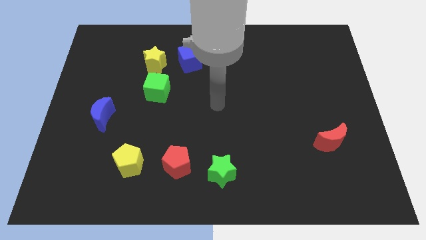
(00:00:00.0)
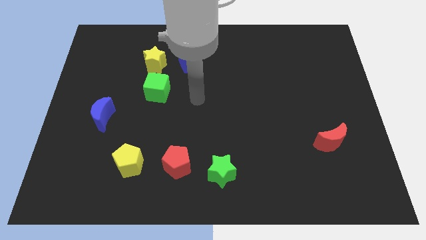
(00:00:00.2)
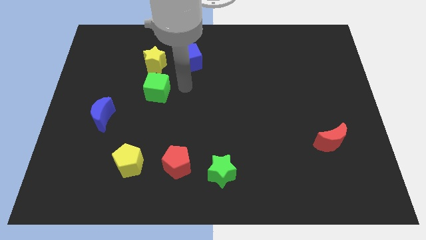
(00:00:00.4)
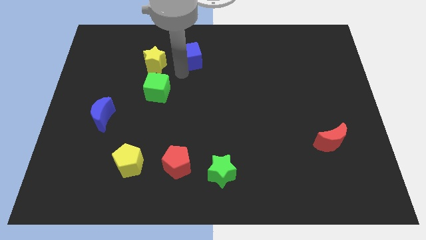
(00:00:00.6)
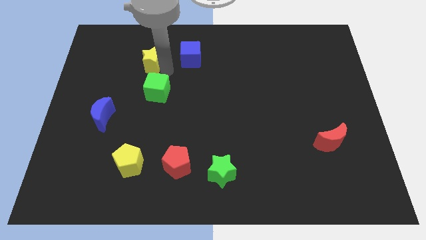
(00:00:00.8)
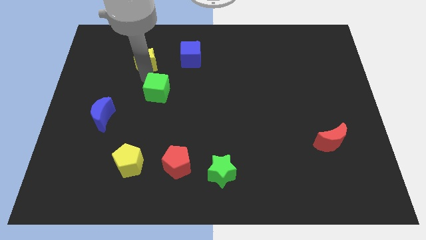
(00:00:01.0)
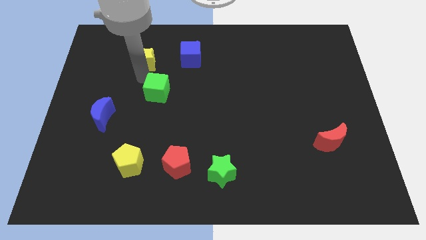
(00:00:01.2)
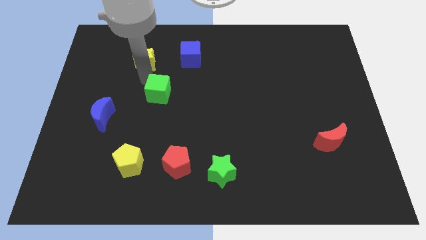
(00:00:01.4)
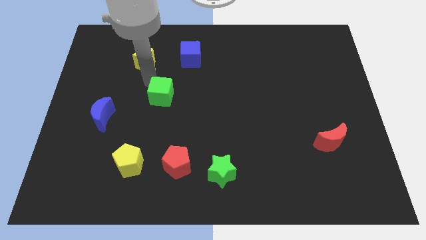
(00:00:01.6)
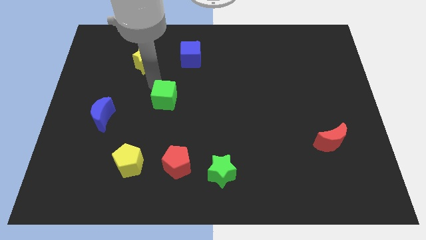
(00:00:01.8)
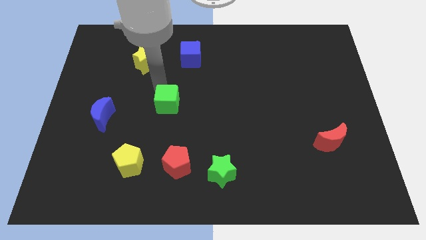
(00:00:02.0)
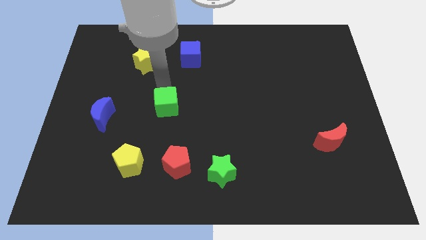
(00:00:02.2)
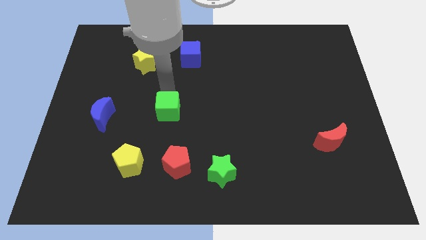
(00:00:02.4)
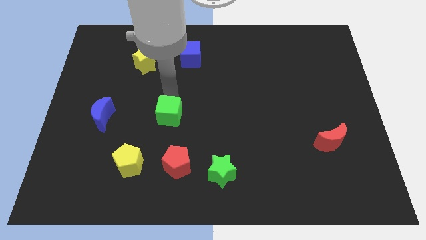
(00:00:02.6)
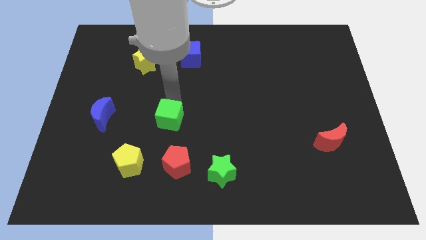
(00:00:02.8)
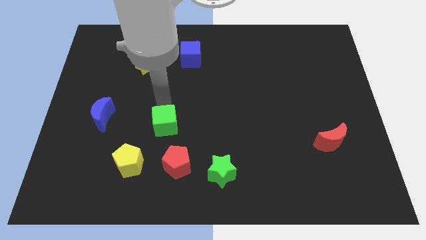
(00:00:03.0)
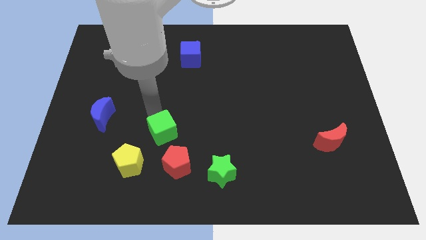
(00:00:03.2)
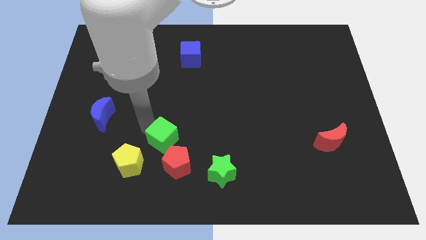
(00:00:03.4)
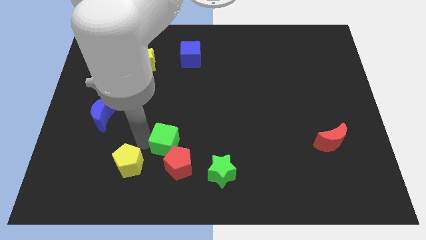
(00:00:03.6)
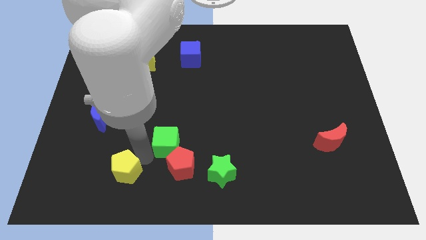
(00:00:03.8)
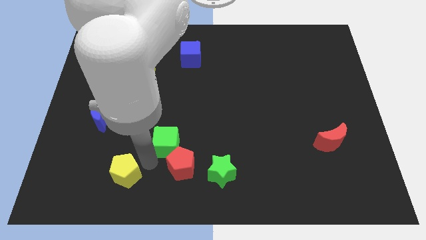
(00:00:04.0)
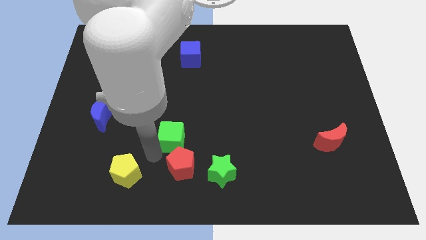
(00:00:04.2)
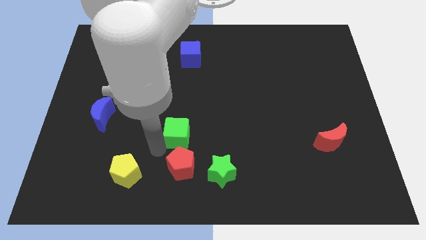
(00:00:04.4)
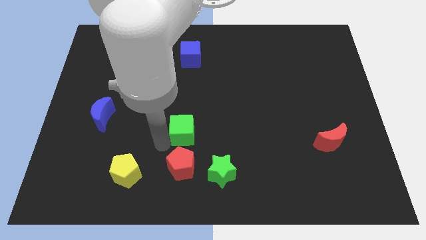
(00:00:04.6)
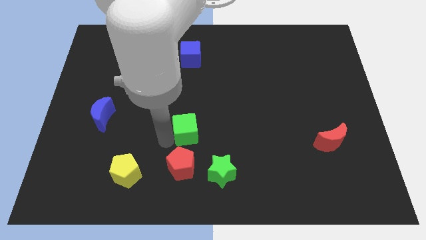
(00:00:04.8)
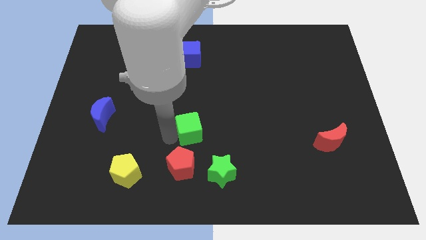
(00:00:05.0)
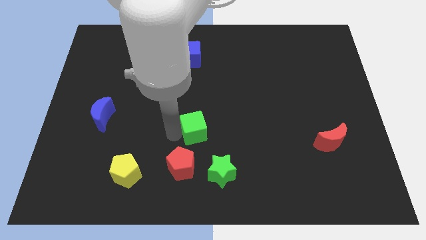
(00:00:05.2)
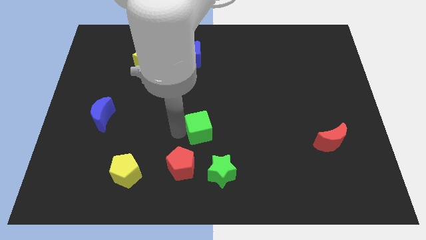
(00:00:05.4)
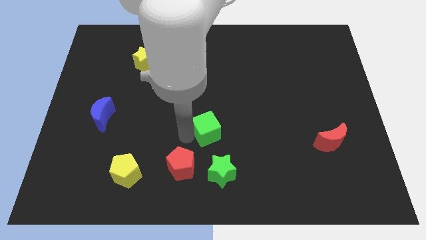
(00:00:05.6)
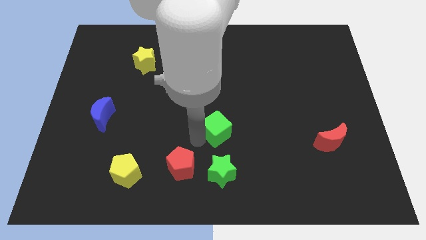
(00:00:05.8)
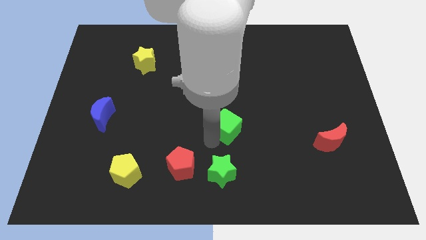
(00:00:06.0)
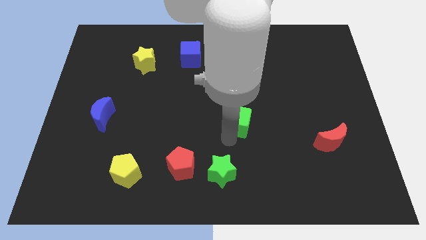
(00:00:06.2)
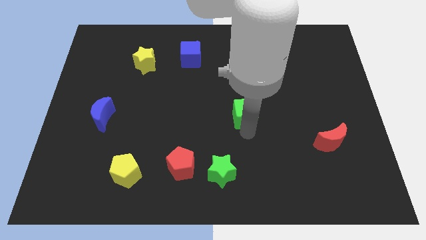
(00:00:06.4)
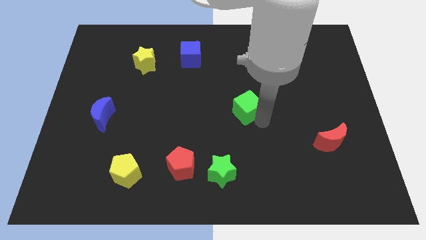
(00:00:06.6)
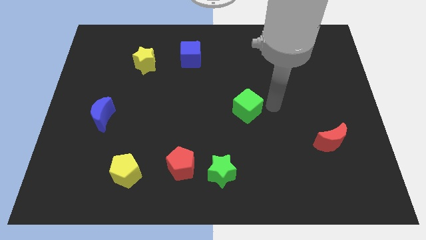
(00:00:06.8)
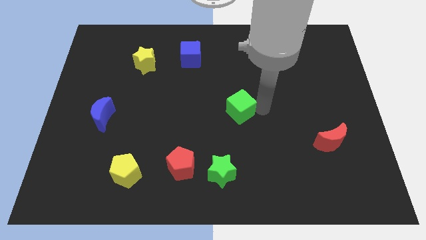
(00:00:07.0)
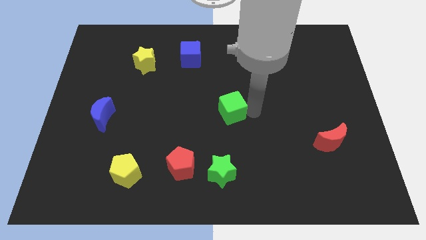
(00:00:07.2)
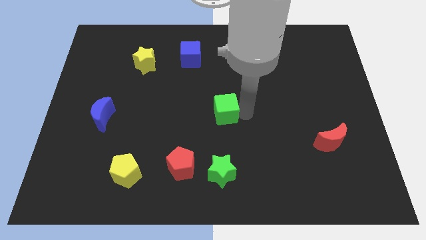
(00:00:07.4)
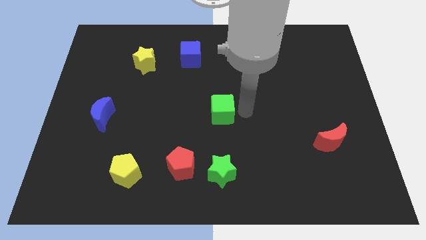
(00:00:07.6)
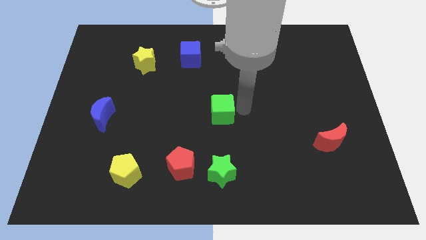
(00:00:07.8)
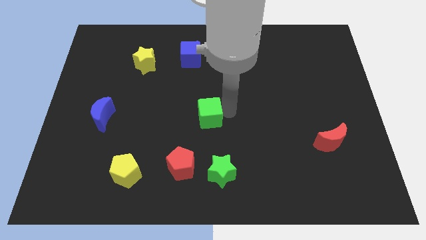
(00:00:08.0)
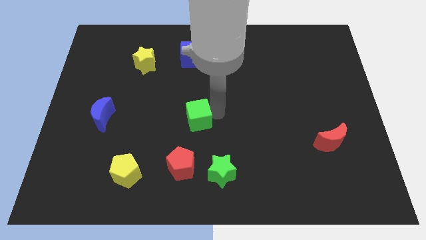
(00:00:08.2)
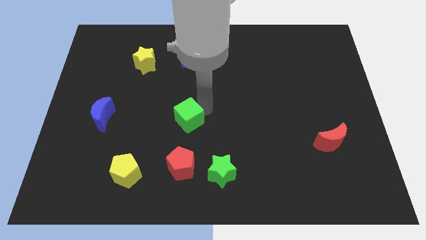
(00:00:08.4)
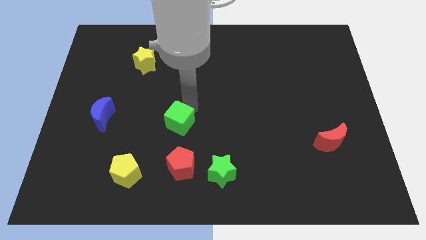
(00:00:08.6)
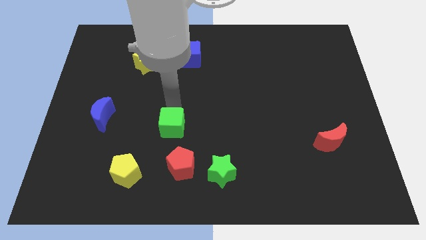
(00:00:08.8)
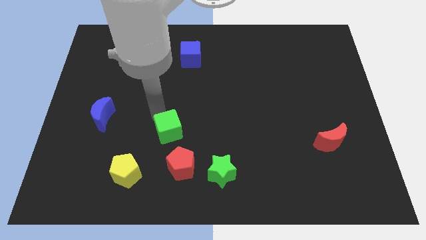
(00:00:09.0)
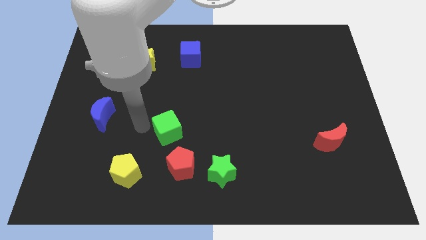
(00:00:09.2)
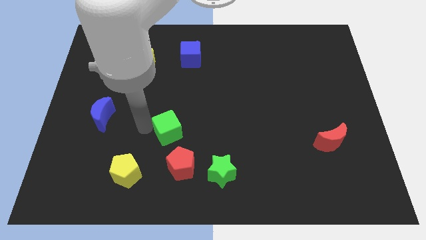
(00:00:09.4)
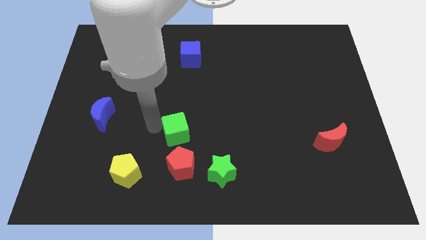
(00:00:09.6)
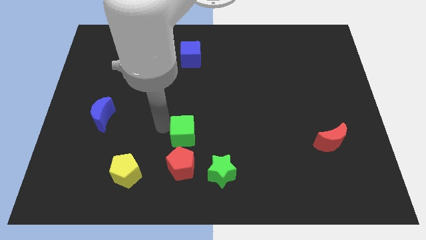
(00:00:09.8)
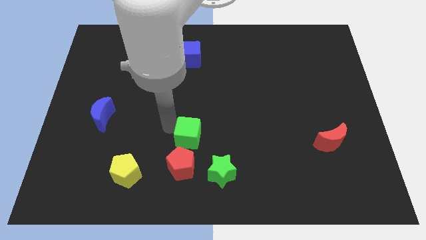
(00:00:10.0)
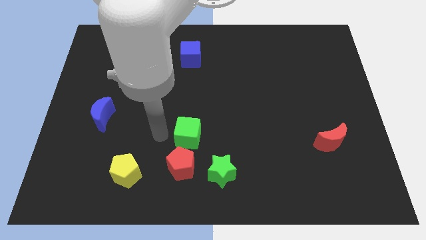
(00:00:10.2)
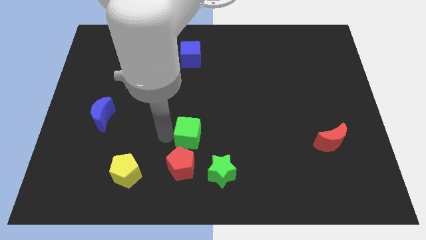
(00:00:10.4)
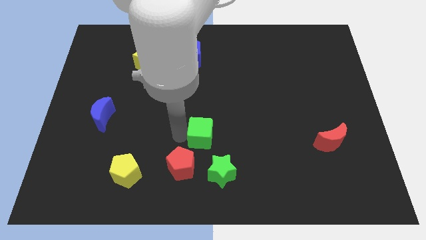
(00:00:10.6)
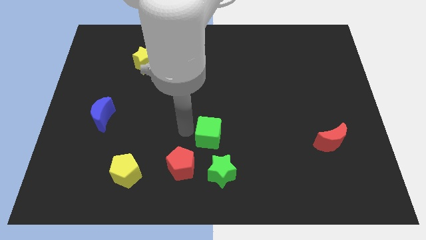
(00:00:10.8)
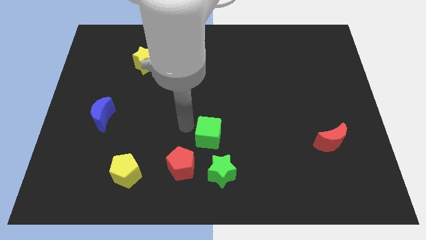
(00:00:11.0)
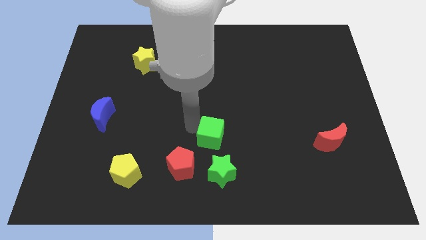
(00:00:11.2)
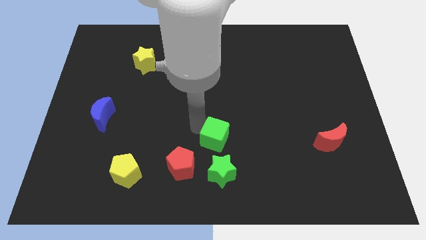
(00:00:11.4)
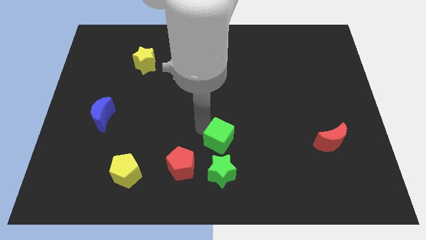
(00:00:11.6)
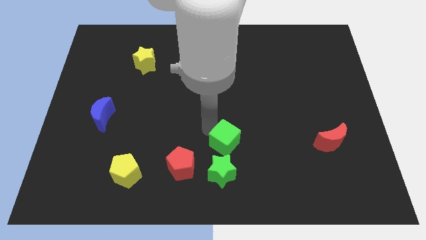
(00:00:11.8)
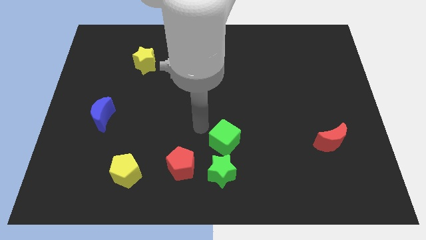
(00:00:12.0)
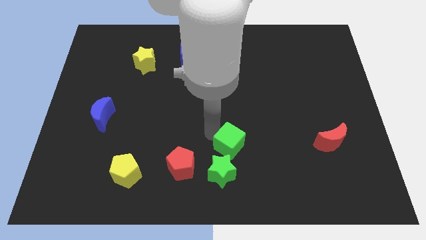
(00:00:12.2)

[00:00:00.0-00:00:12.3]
push the green cube to the top right of the green star

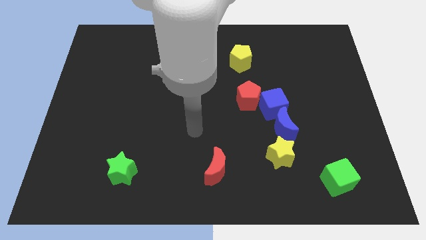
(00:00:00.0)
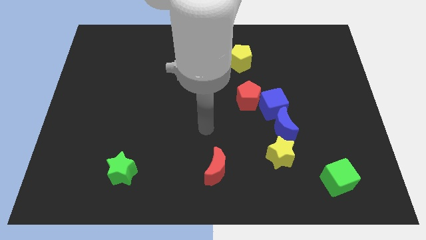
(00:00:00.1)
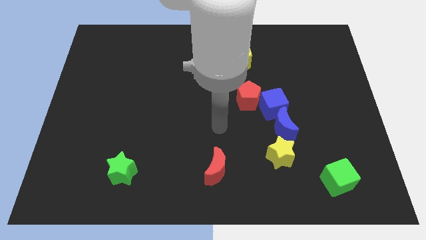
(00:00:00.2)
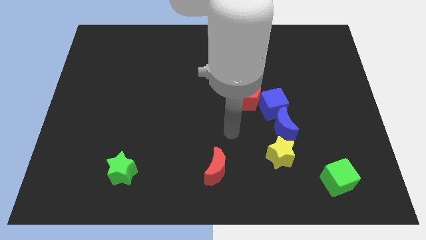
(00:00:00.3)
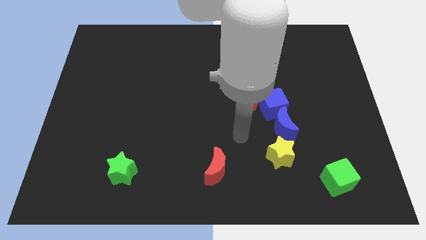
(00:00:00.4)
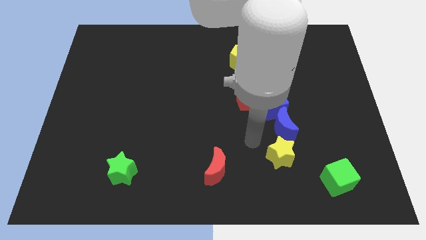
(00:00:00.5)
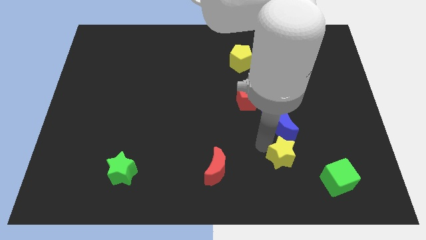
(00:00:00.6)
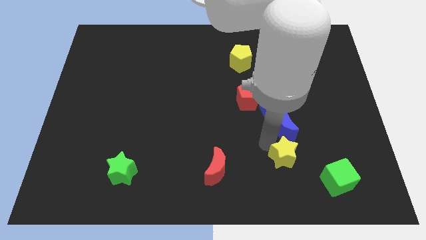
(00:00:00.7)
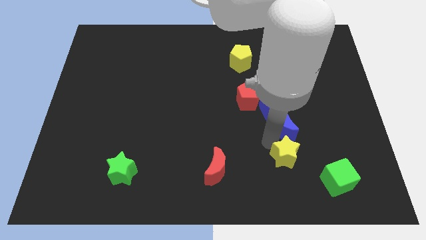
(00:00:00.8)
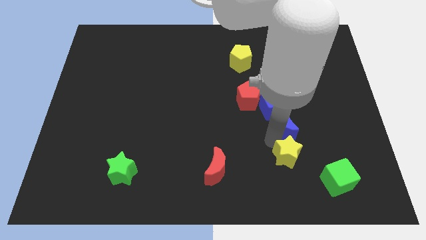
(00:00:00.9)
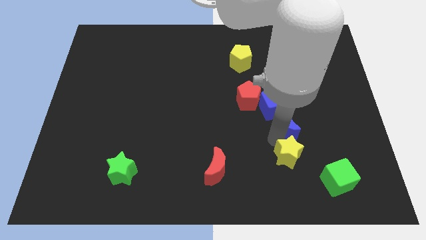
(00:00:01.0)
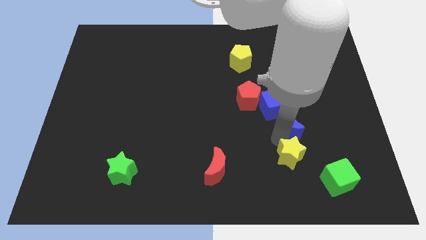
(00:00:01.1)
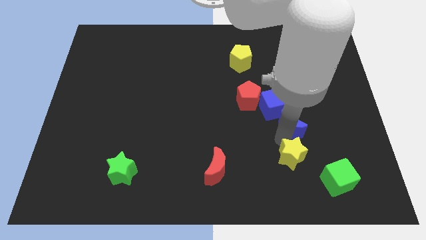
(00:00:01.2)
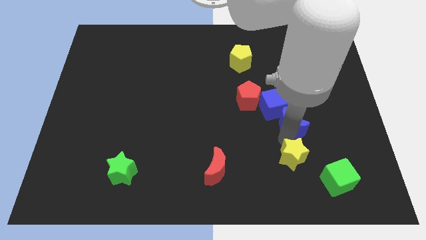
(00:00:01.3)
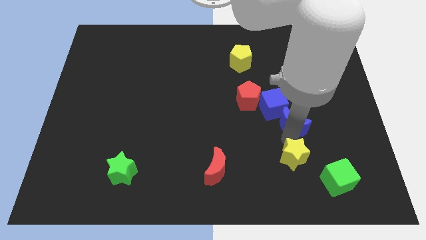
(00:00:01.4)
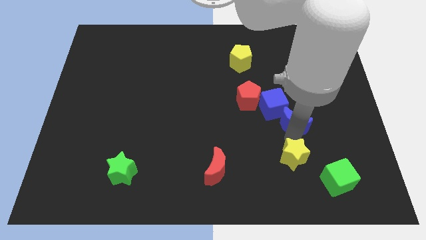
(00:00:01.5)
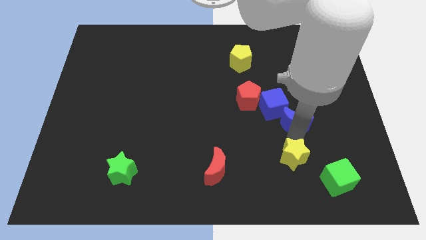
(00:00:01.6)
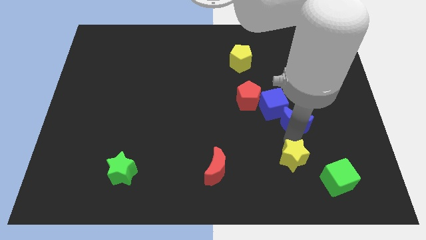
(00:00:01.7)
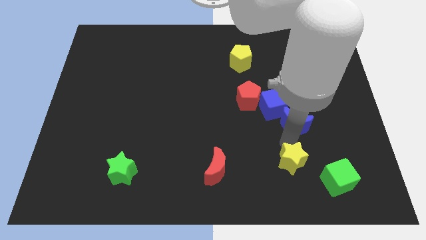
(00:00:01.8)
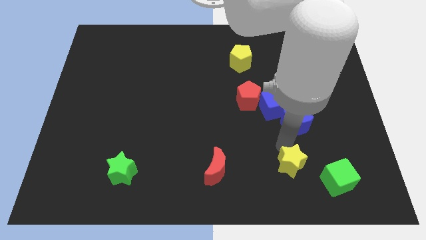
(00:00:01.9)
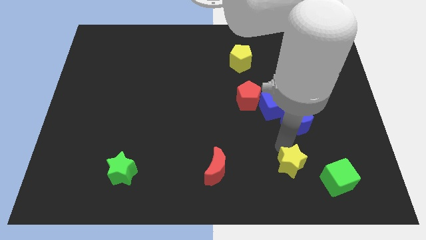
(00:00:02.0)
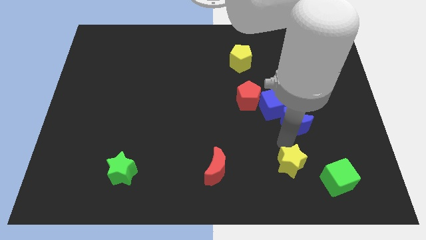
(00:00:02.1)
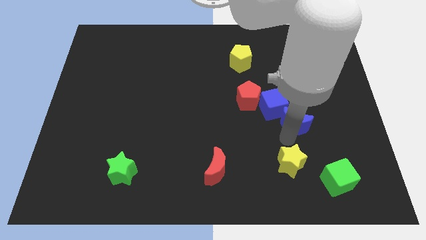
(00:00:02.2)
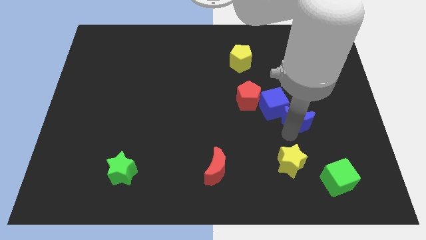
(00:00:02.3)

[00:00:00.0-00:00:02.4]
push the blue moon right of the blue cube
